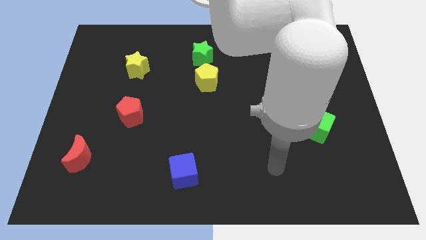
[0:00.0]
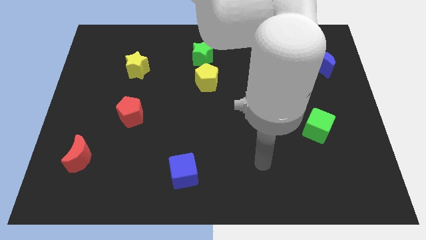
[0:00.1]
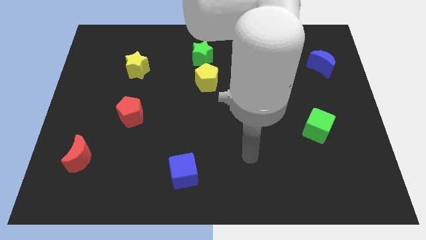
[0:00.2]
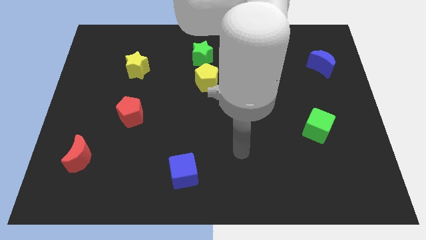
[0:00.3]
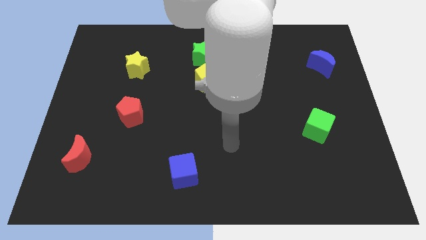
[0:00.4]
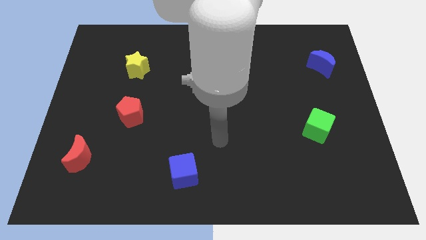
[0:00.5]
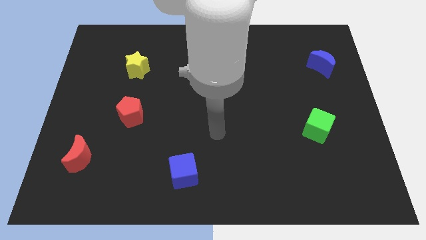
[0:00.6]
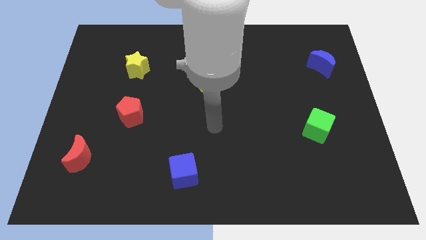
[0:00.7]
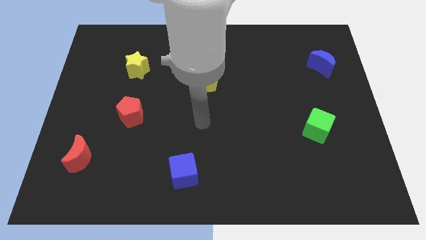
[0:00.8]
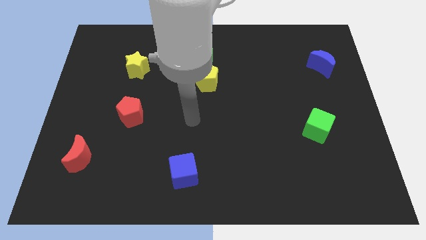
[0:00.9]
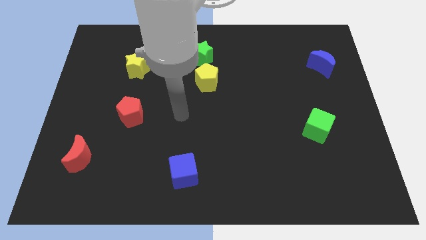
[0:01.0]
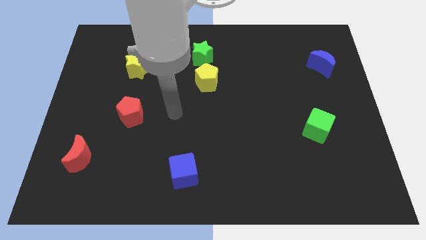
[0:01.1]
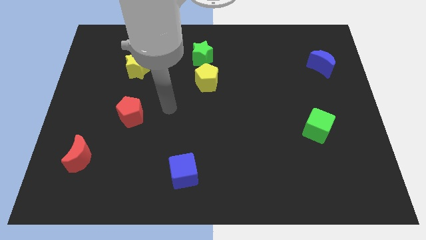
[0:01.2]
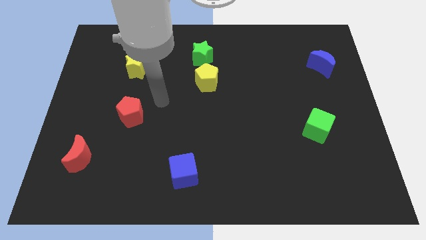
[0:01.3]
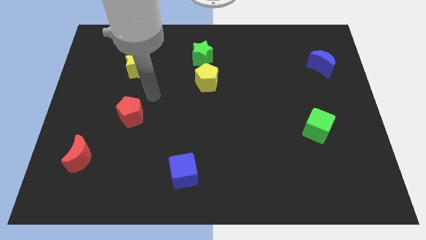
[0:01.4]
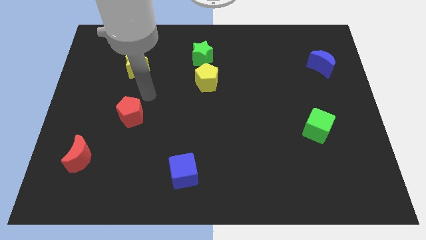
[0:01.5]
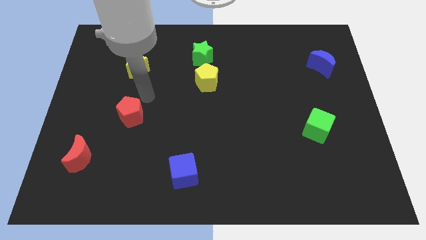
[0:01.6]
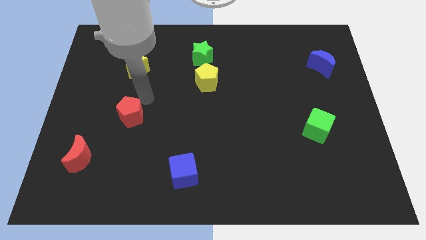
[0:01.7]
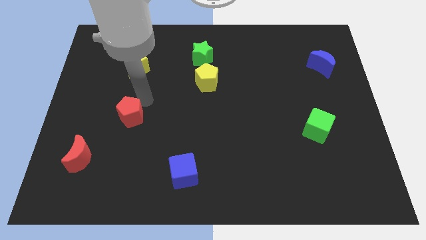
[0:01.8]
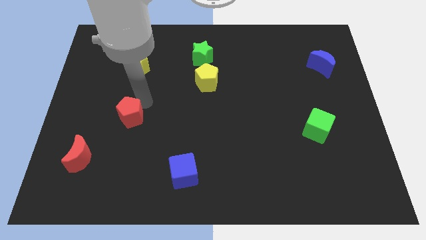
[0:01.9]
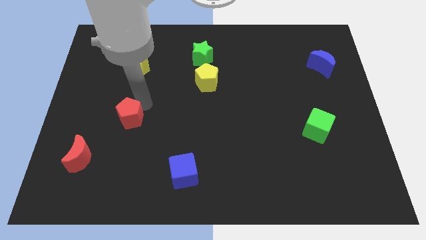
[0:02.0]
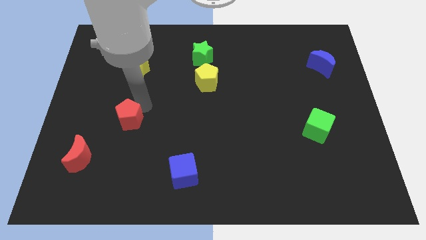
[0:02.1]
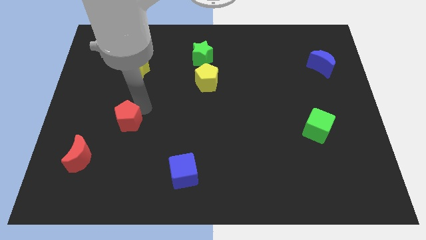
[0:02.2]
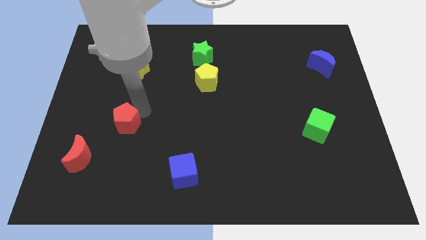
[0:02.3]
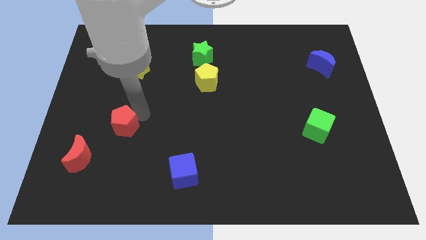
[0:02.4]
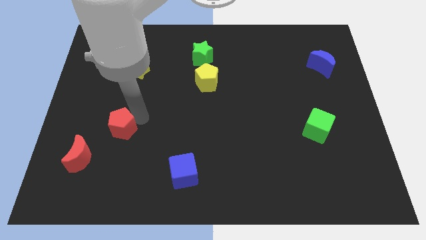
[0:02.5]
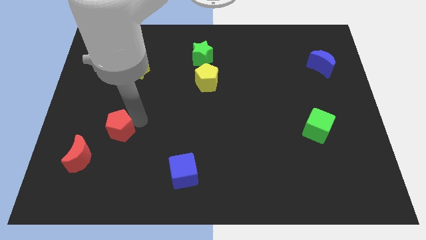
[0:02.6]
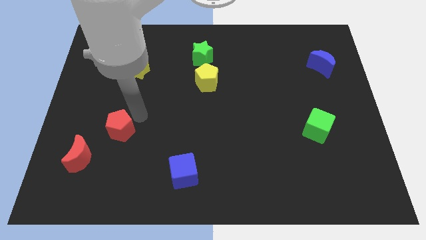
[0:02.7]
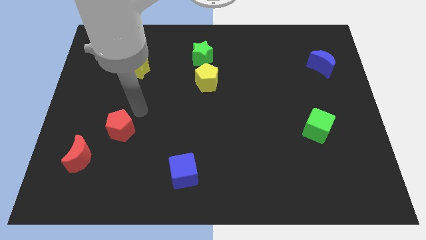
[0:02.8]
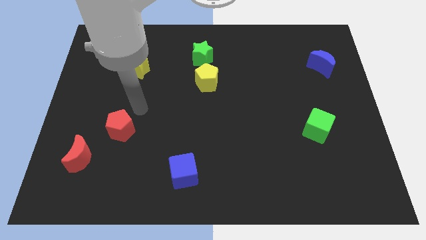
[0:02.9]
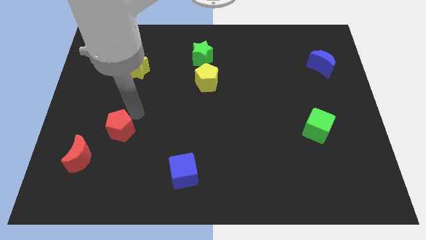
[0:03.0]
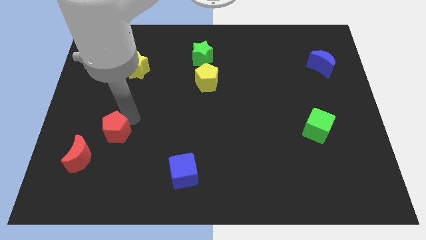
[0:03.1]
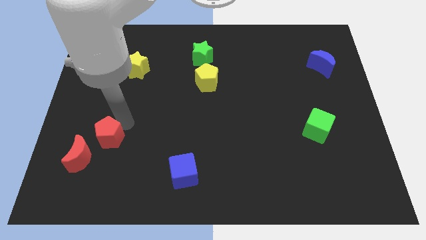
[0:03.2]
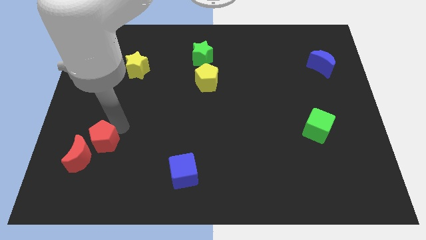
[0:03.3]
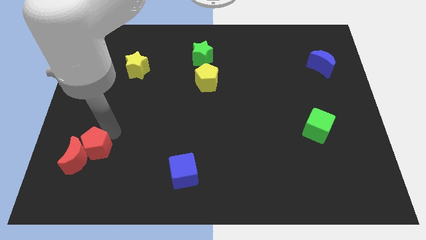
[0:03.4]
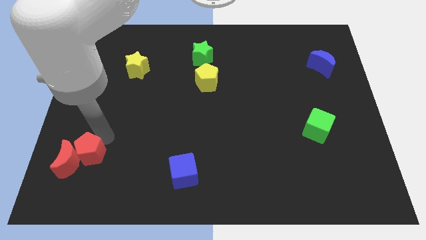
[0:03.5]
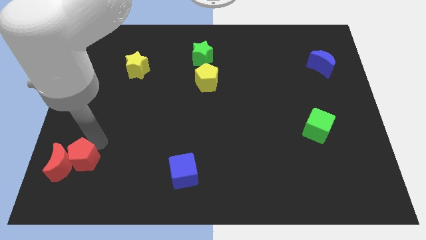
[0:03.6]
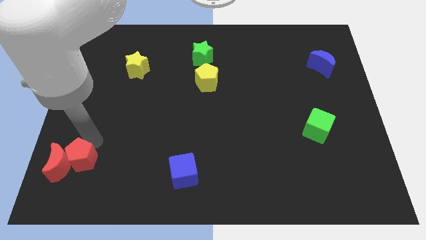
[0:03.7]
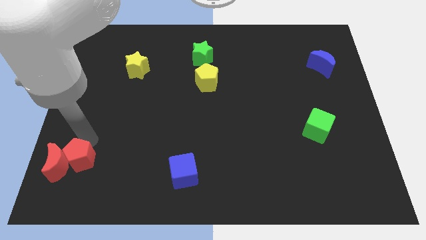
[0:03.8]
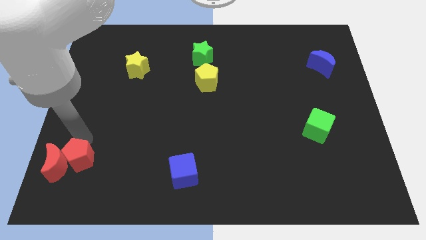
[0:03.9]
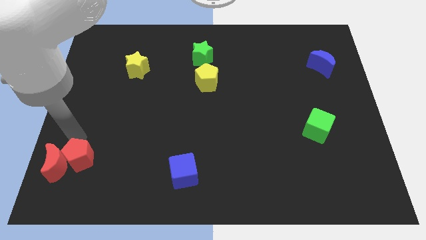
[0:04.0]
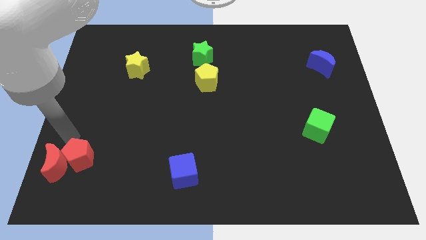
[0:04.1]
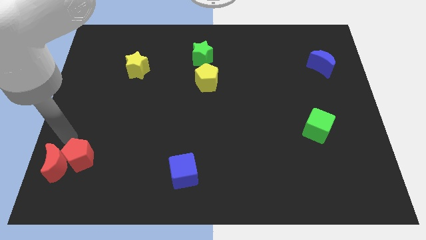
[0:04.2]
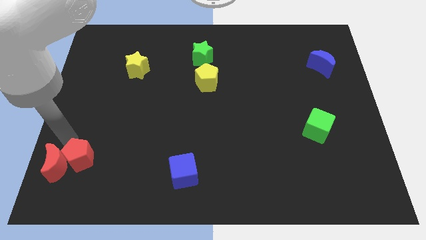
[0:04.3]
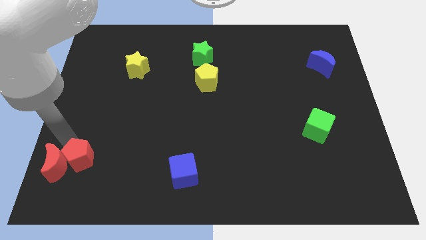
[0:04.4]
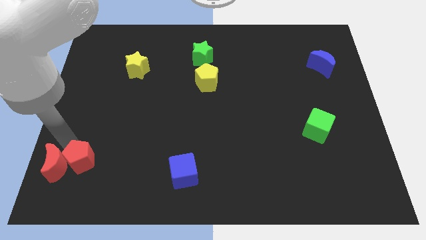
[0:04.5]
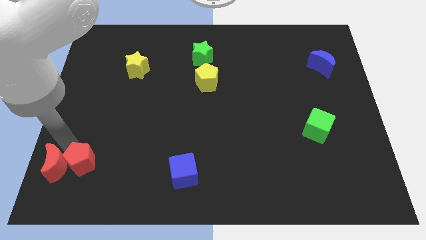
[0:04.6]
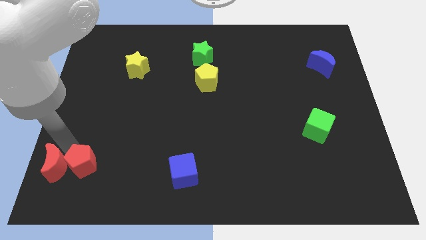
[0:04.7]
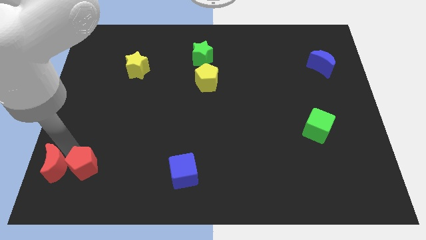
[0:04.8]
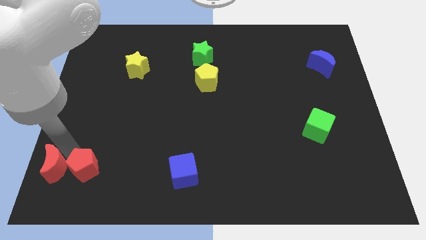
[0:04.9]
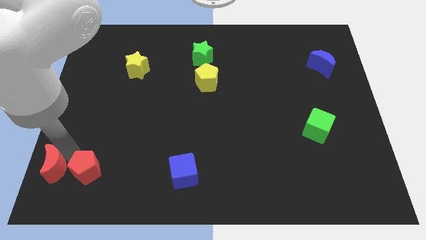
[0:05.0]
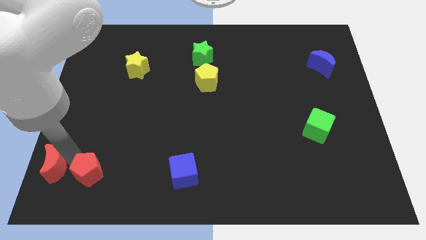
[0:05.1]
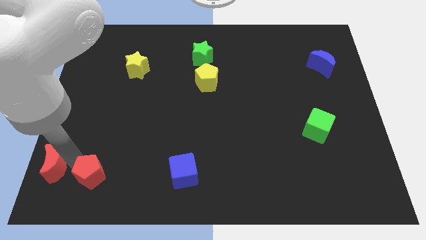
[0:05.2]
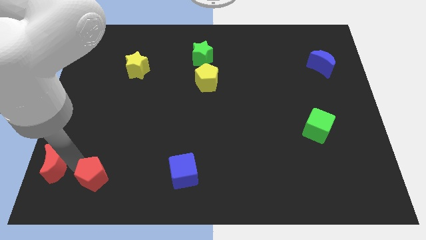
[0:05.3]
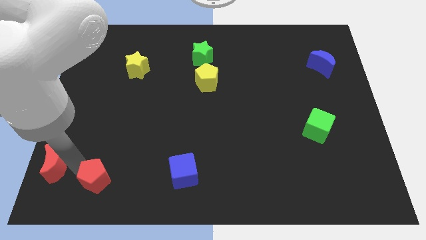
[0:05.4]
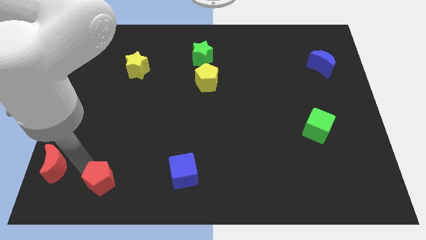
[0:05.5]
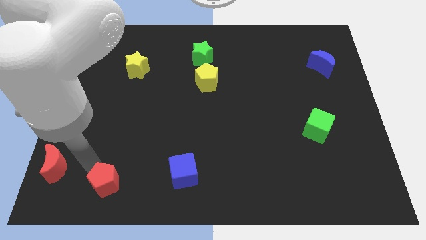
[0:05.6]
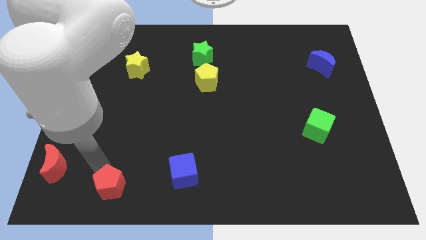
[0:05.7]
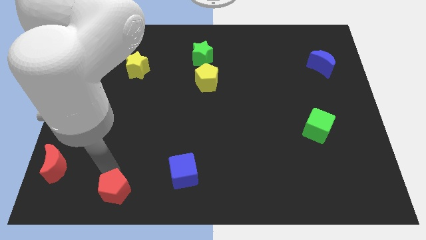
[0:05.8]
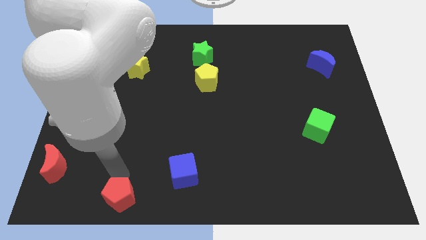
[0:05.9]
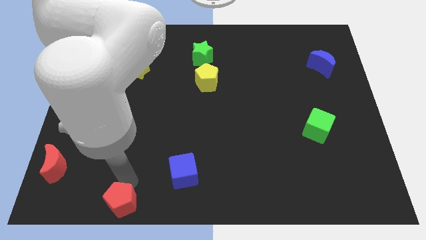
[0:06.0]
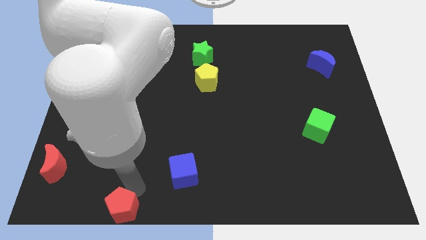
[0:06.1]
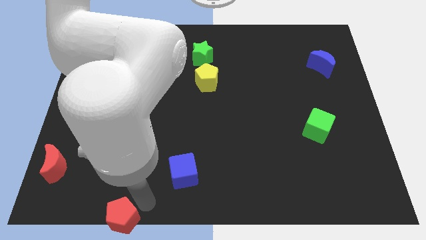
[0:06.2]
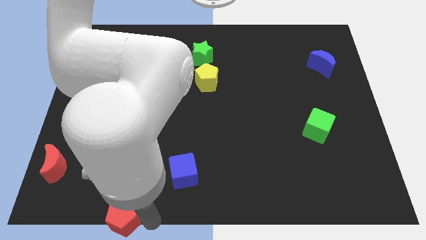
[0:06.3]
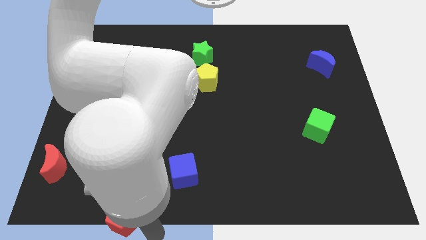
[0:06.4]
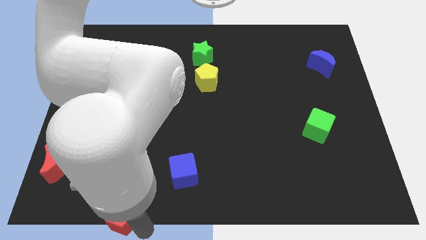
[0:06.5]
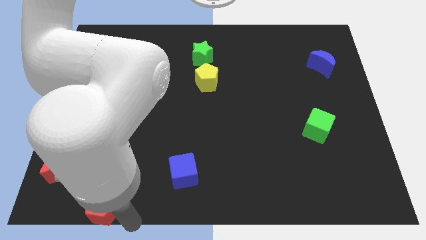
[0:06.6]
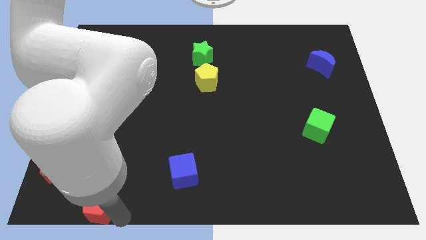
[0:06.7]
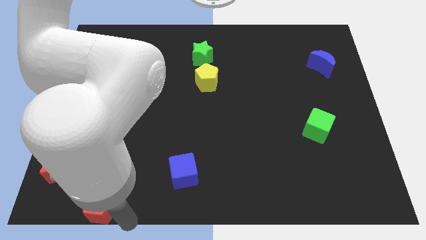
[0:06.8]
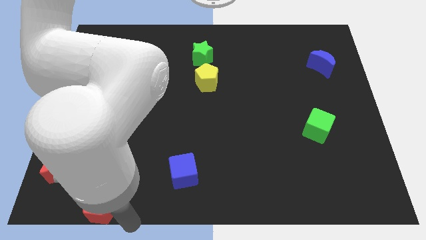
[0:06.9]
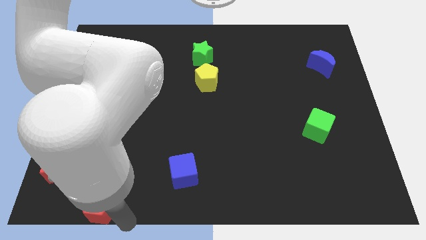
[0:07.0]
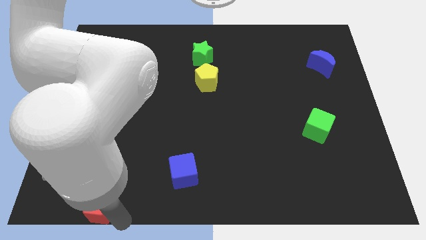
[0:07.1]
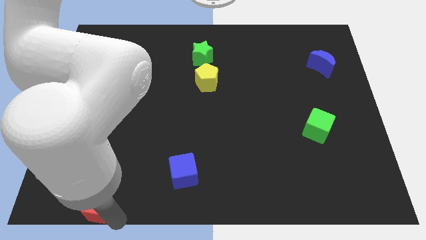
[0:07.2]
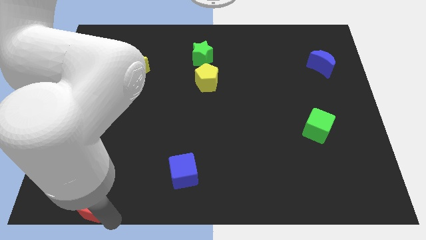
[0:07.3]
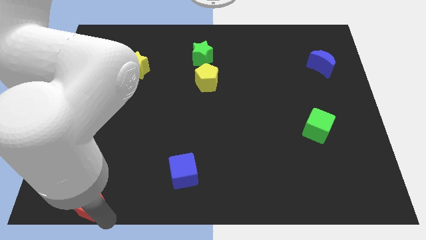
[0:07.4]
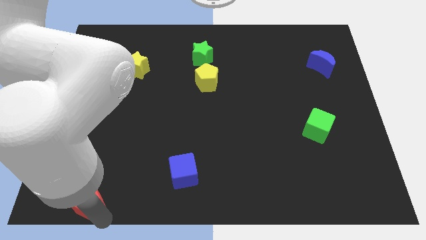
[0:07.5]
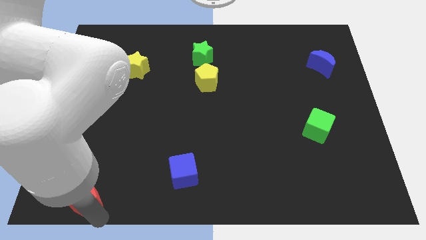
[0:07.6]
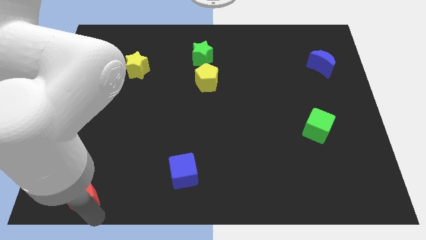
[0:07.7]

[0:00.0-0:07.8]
slide the red pentagon to the bottom left
